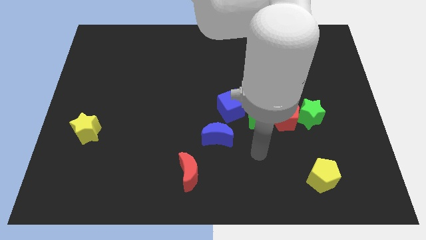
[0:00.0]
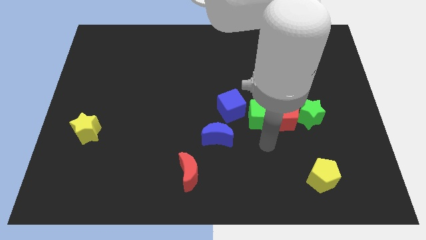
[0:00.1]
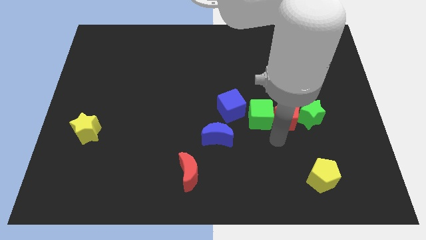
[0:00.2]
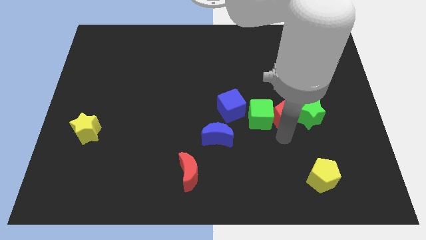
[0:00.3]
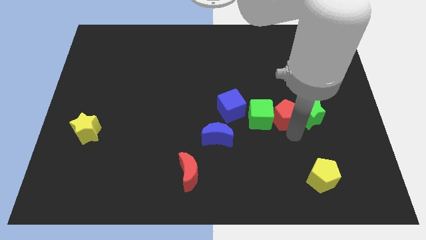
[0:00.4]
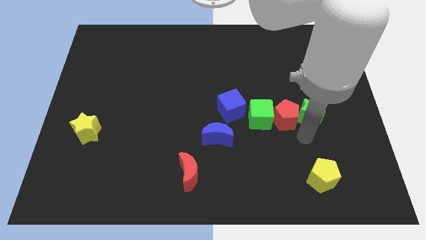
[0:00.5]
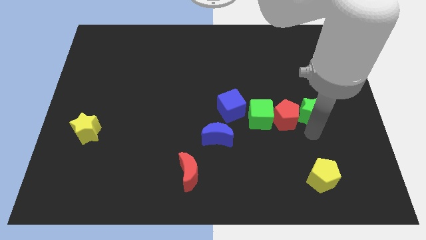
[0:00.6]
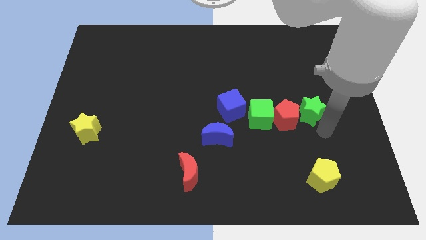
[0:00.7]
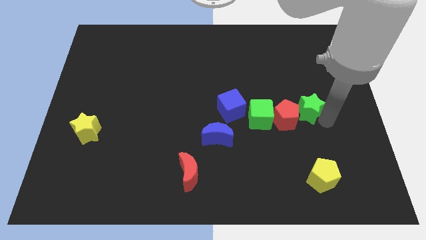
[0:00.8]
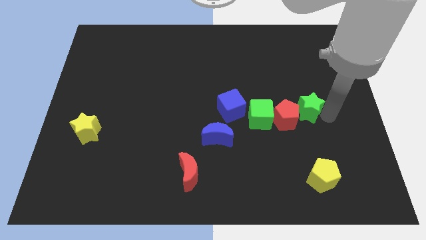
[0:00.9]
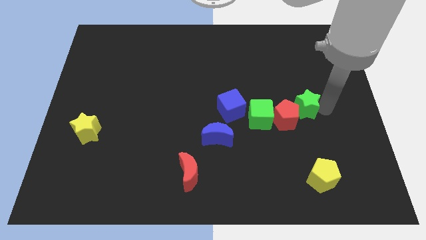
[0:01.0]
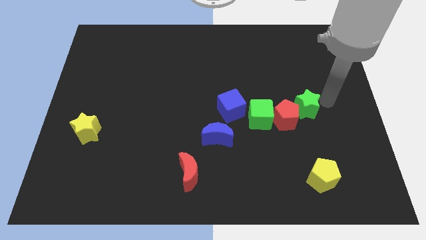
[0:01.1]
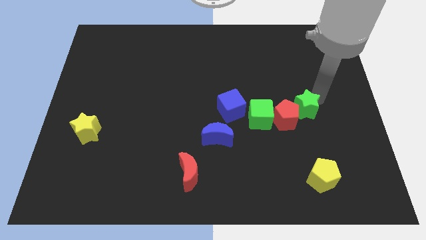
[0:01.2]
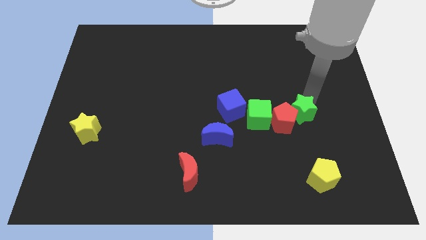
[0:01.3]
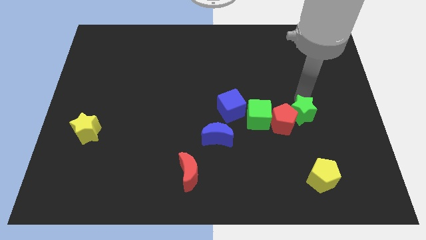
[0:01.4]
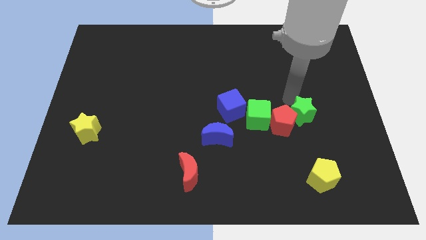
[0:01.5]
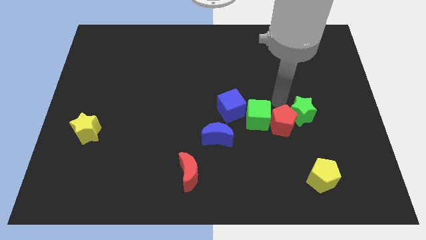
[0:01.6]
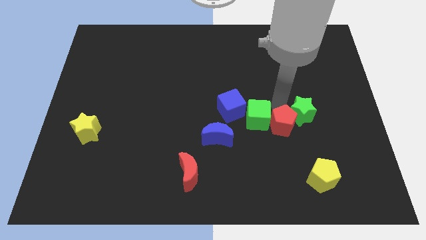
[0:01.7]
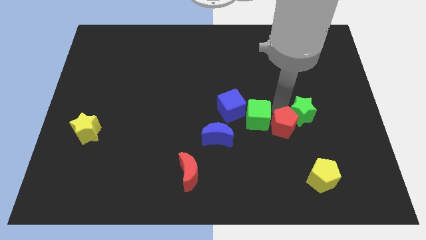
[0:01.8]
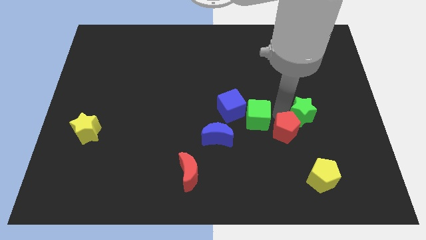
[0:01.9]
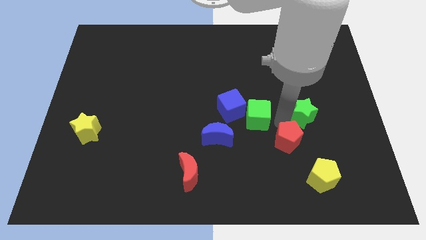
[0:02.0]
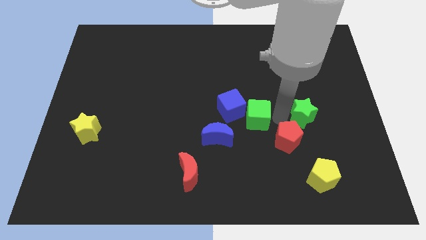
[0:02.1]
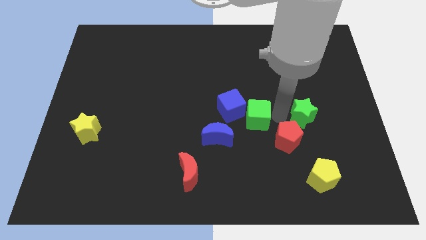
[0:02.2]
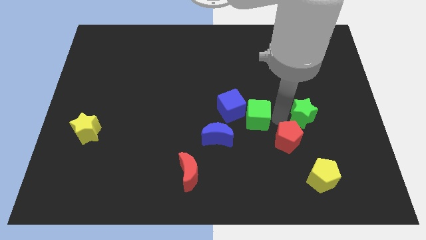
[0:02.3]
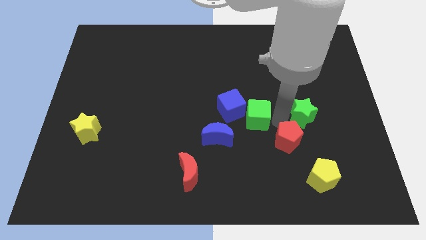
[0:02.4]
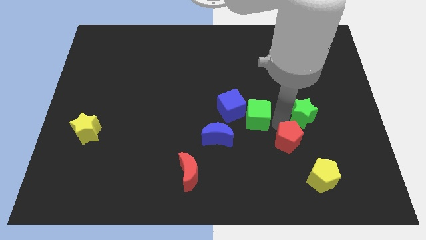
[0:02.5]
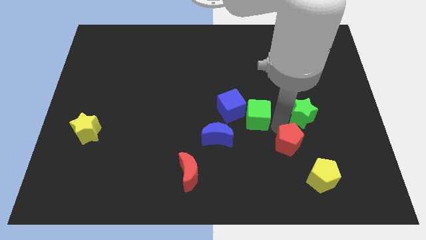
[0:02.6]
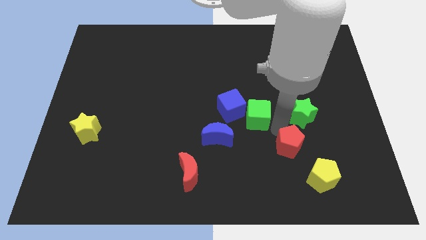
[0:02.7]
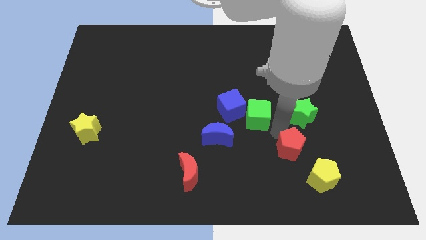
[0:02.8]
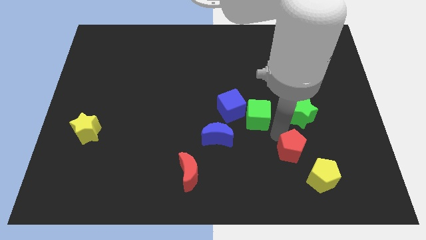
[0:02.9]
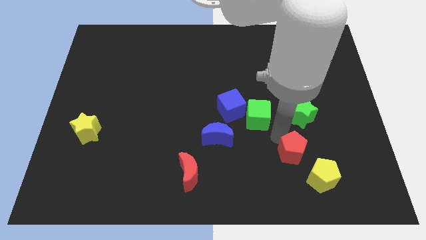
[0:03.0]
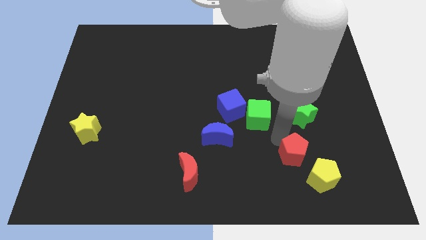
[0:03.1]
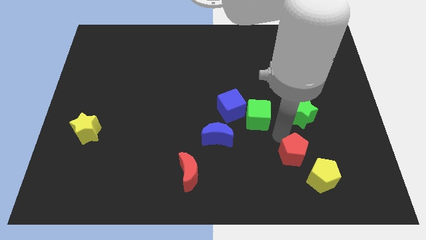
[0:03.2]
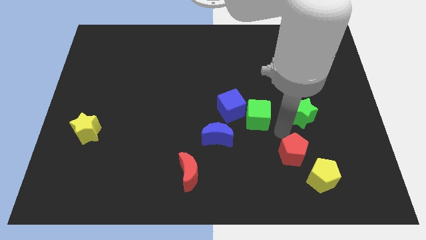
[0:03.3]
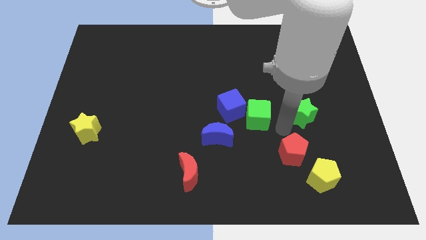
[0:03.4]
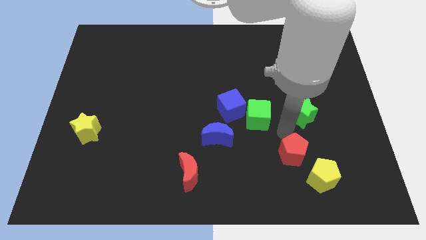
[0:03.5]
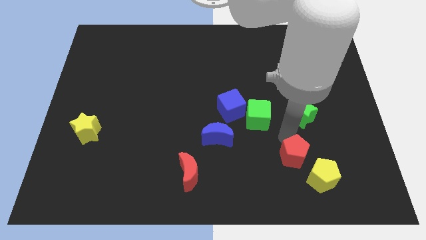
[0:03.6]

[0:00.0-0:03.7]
pull the red pentagon apart from the green cube and green star

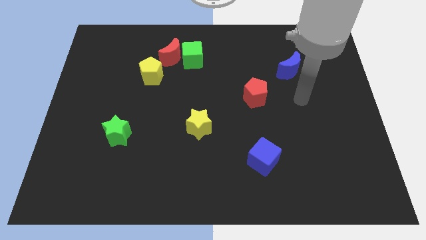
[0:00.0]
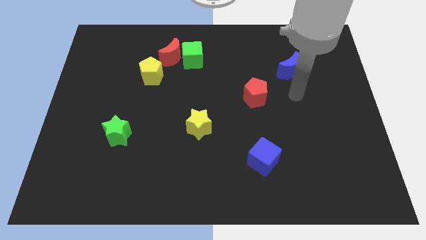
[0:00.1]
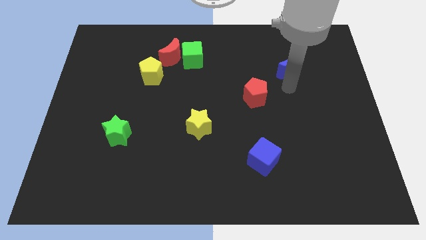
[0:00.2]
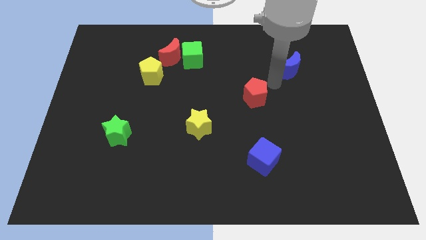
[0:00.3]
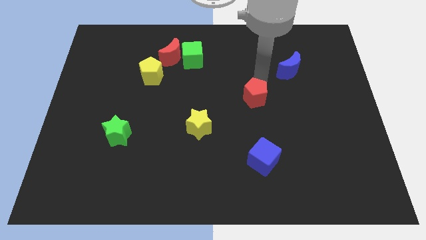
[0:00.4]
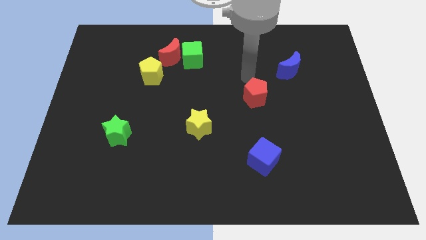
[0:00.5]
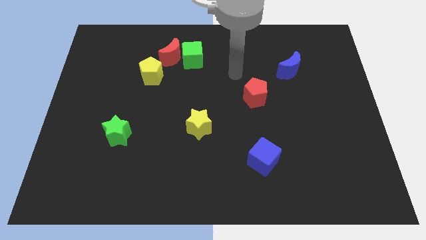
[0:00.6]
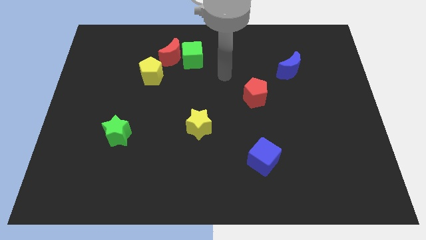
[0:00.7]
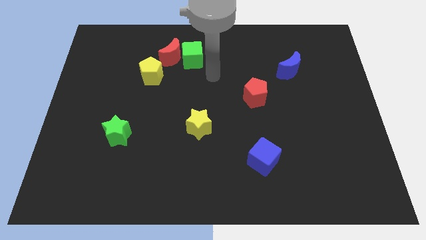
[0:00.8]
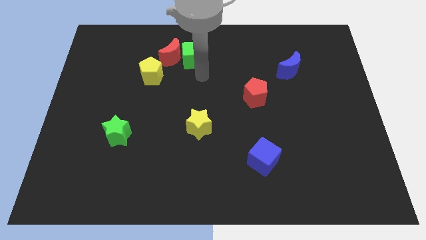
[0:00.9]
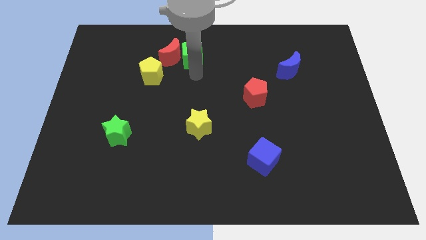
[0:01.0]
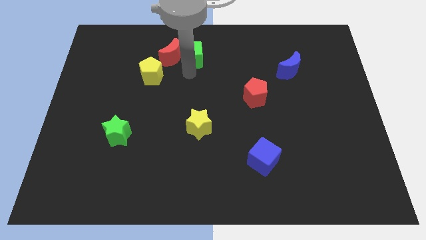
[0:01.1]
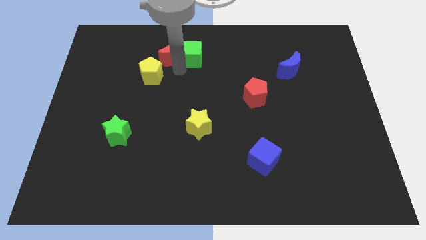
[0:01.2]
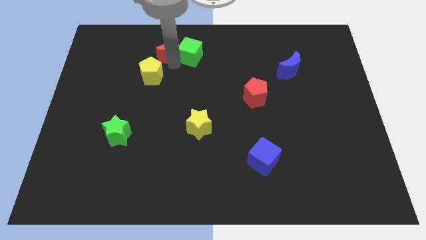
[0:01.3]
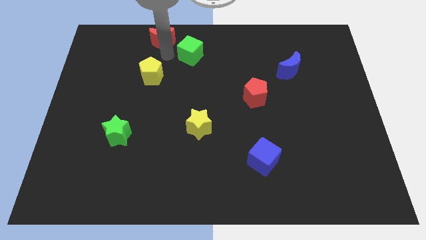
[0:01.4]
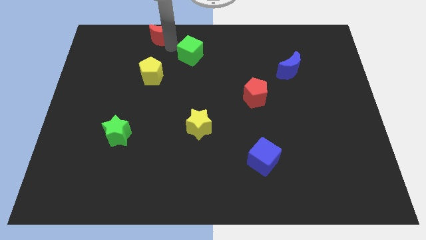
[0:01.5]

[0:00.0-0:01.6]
separate the green cube from the red moon

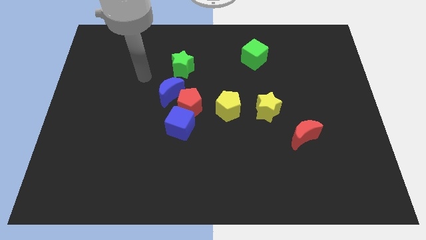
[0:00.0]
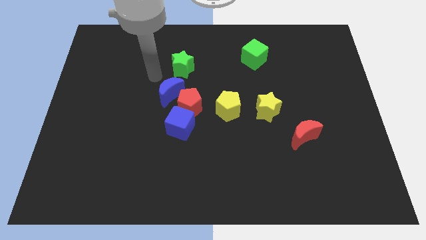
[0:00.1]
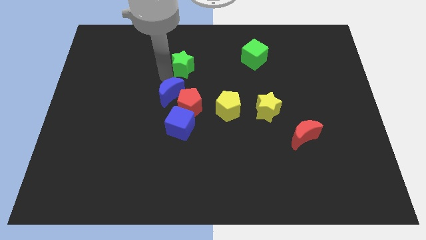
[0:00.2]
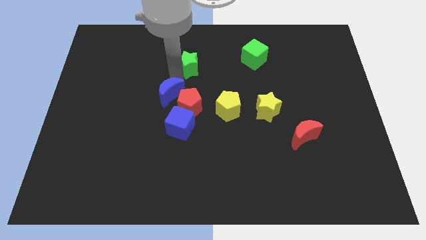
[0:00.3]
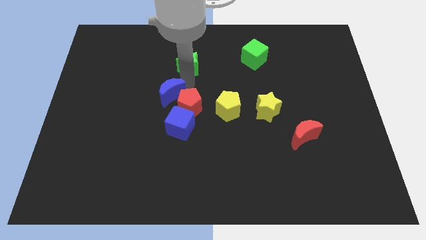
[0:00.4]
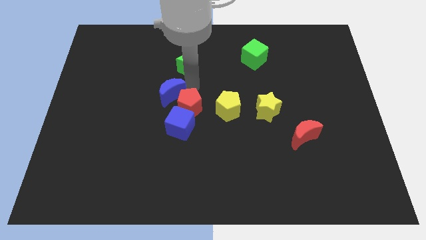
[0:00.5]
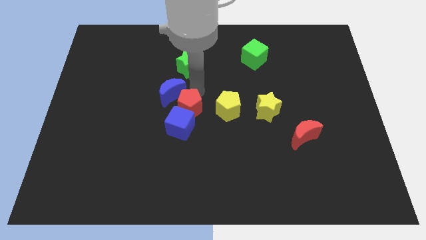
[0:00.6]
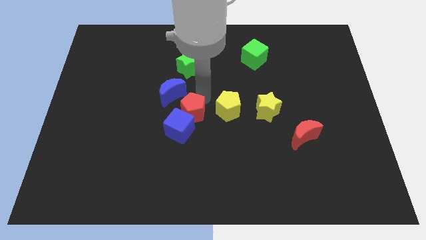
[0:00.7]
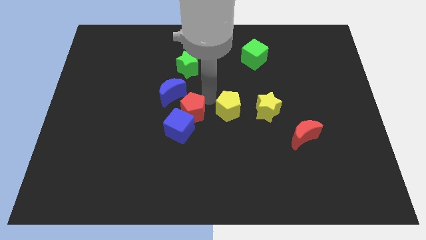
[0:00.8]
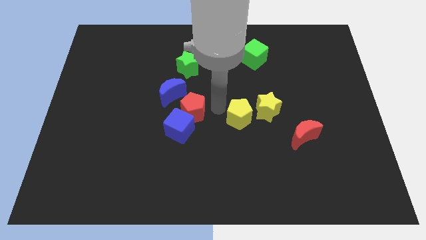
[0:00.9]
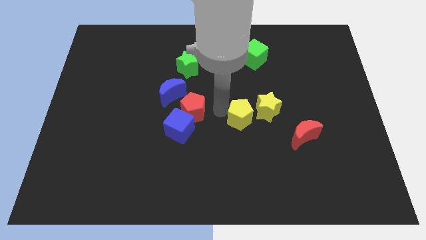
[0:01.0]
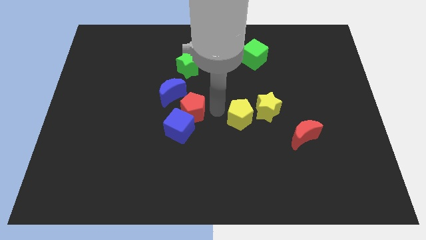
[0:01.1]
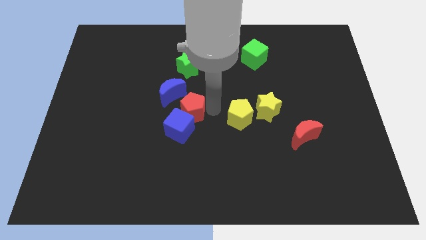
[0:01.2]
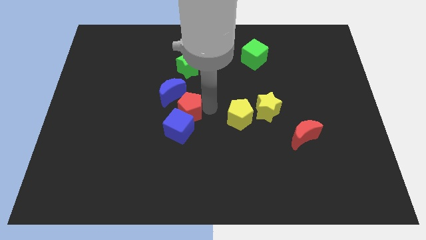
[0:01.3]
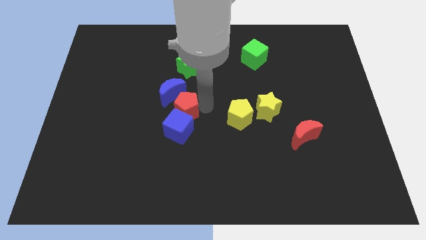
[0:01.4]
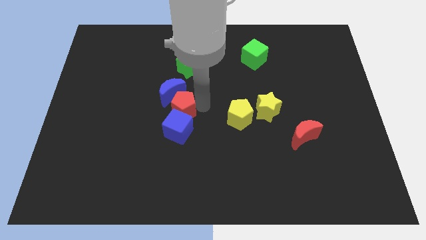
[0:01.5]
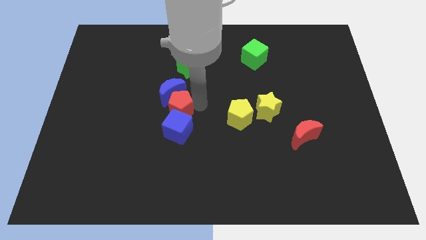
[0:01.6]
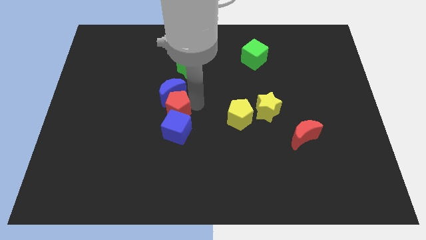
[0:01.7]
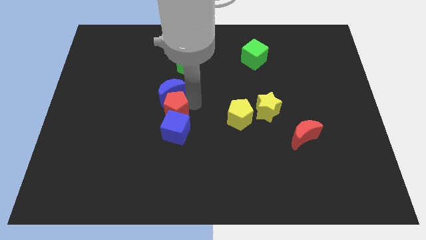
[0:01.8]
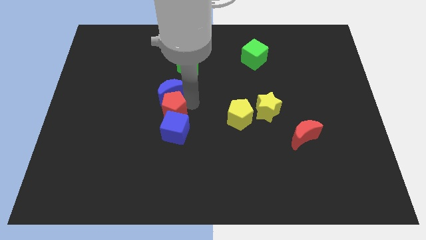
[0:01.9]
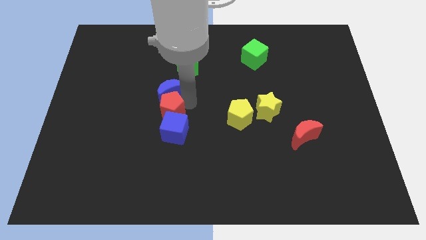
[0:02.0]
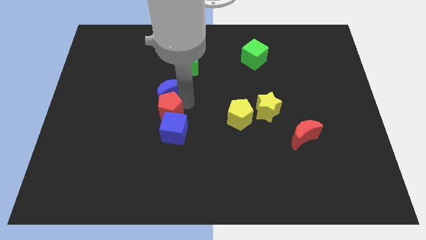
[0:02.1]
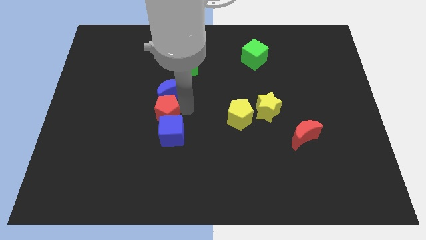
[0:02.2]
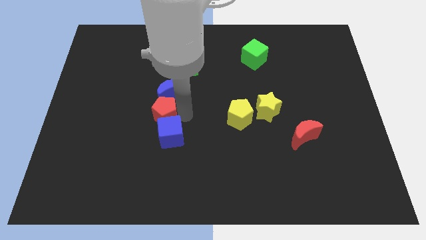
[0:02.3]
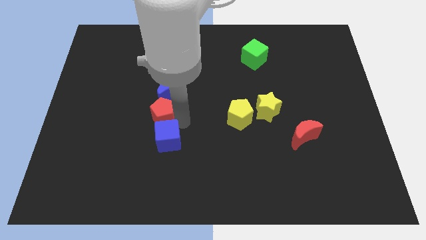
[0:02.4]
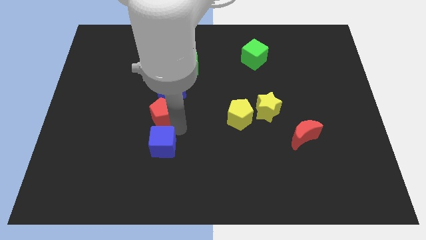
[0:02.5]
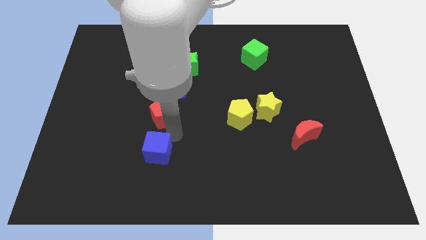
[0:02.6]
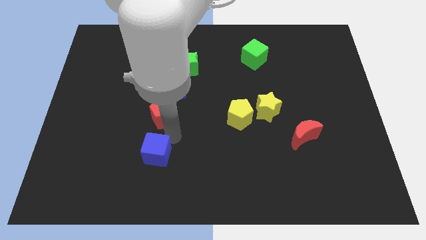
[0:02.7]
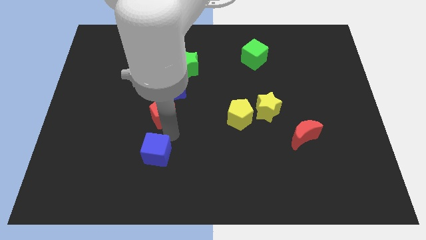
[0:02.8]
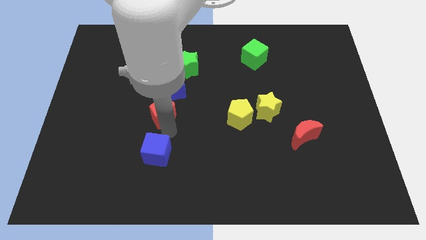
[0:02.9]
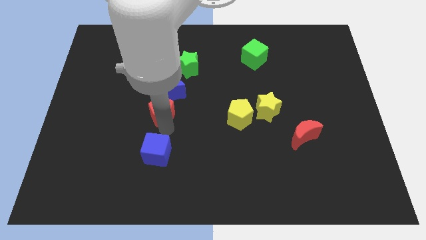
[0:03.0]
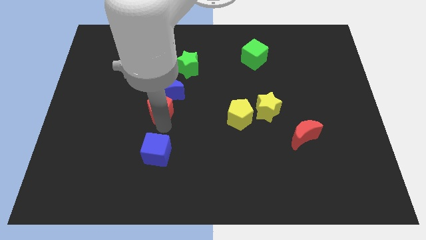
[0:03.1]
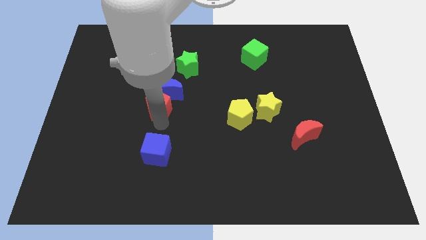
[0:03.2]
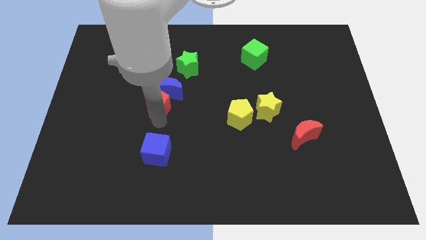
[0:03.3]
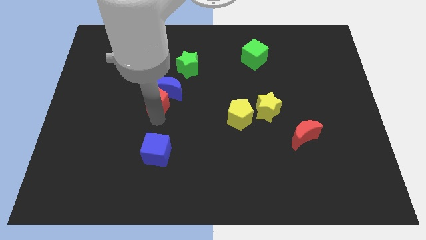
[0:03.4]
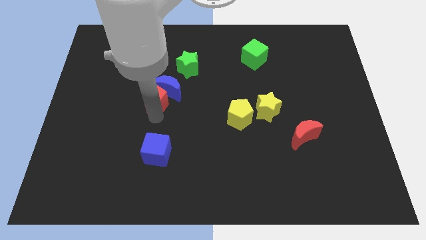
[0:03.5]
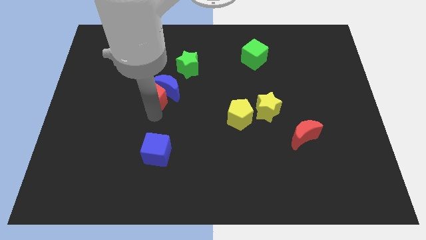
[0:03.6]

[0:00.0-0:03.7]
separate the red pentagon from the blue cube, blue moon, and yellow pentagon

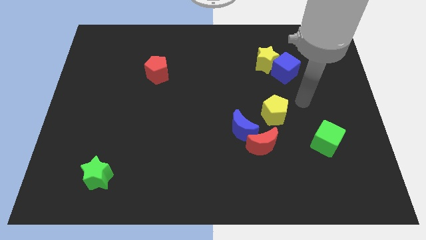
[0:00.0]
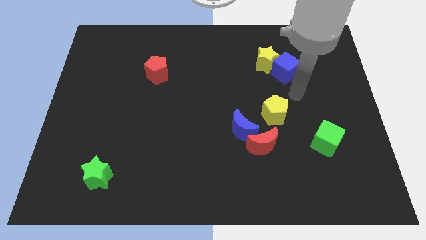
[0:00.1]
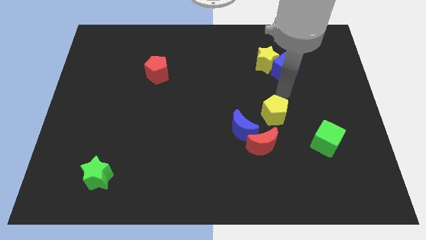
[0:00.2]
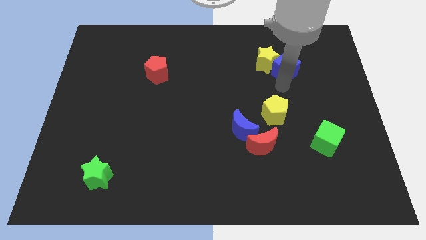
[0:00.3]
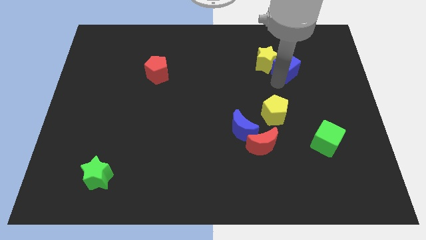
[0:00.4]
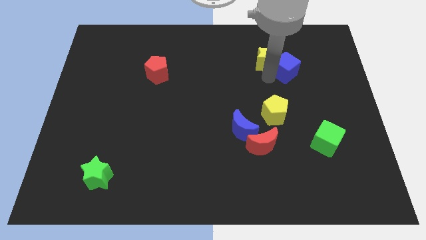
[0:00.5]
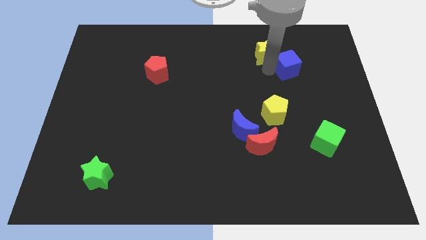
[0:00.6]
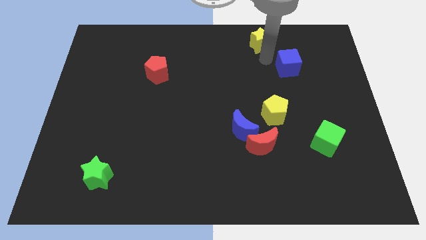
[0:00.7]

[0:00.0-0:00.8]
move the blue cube away from the yellow star
